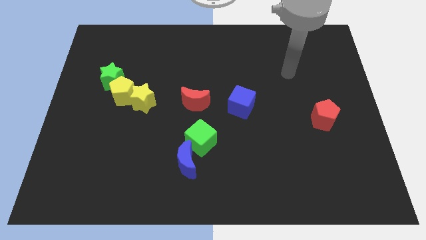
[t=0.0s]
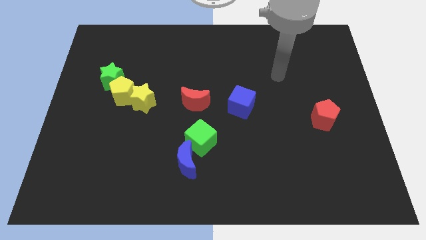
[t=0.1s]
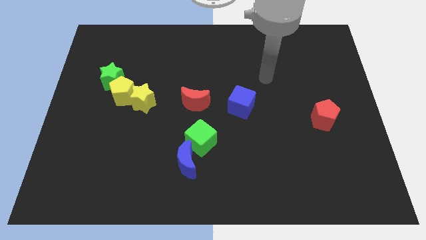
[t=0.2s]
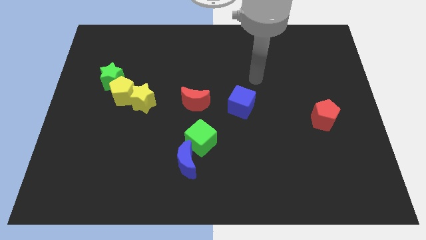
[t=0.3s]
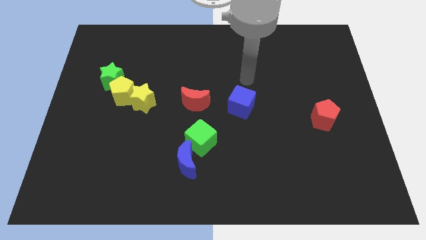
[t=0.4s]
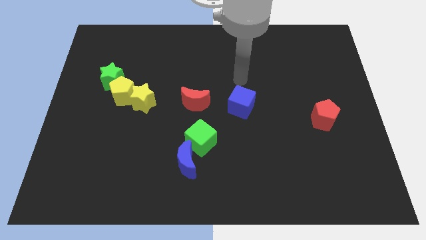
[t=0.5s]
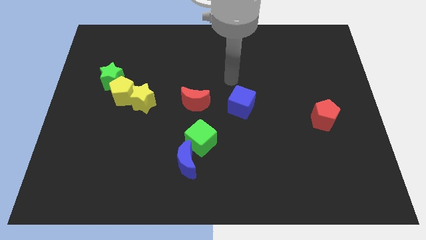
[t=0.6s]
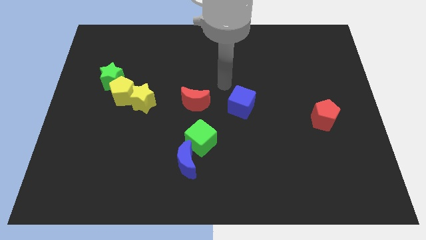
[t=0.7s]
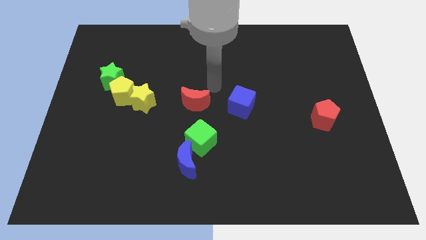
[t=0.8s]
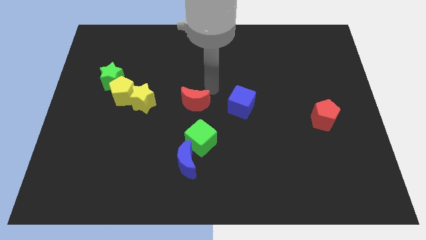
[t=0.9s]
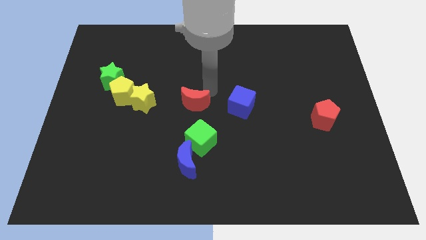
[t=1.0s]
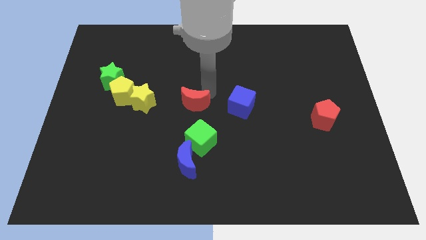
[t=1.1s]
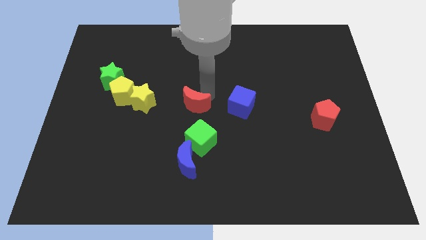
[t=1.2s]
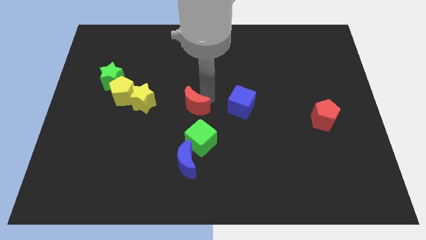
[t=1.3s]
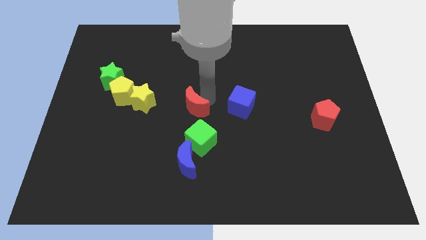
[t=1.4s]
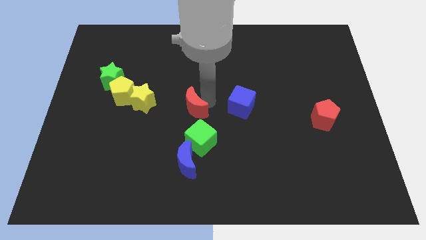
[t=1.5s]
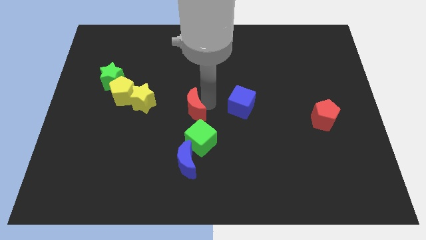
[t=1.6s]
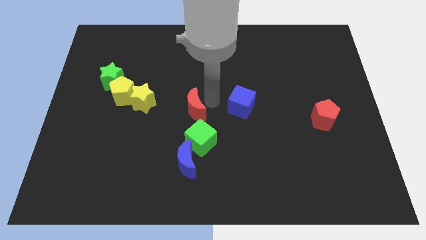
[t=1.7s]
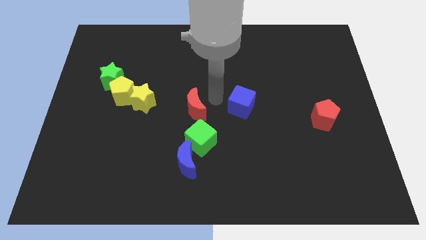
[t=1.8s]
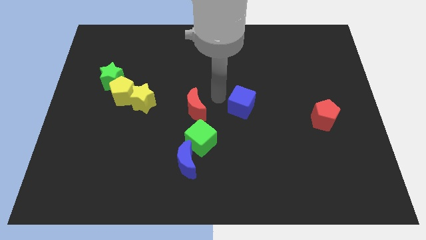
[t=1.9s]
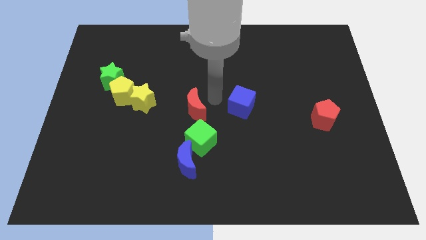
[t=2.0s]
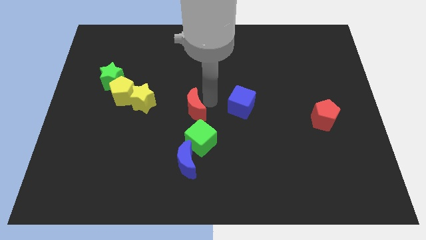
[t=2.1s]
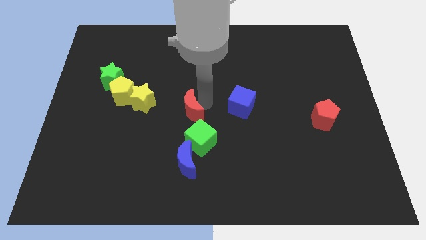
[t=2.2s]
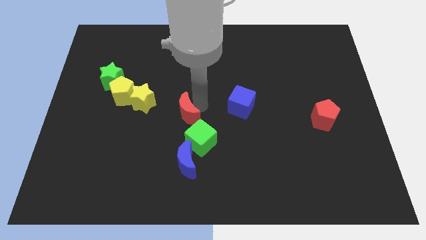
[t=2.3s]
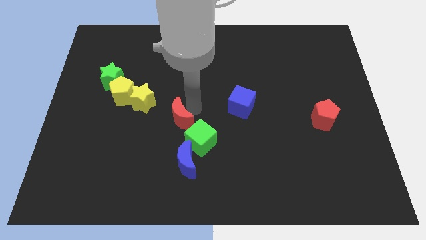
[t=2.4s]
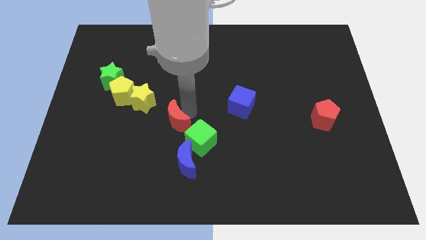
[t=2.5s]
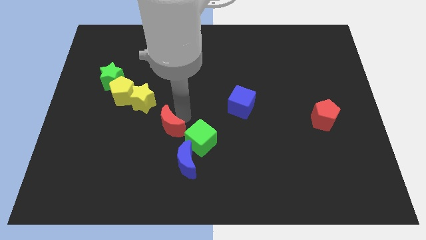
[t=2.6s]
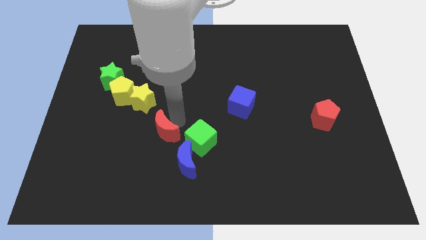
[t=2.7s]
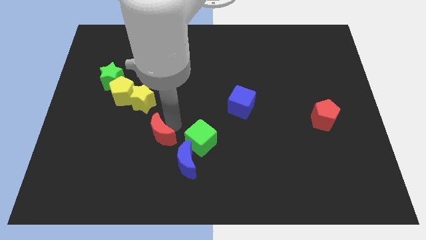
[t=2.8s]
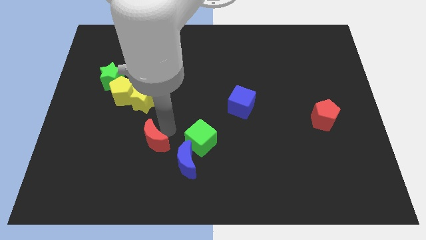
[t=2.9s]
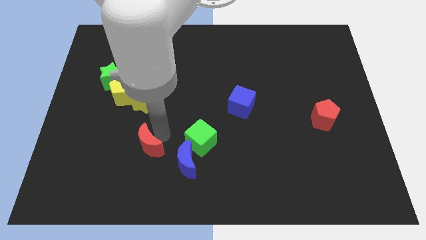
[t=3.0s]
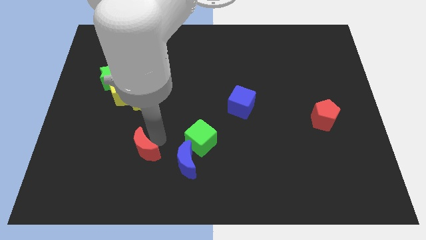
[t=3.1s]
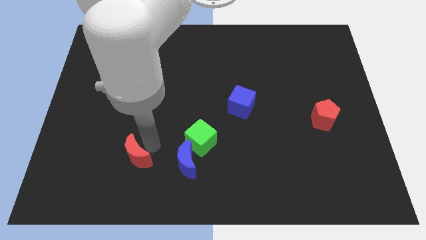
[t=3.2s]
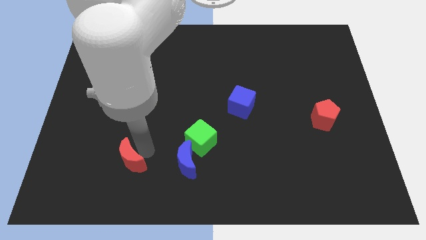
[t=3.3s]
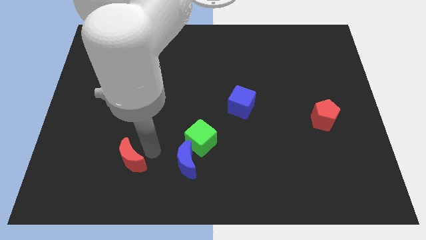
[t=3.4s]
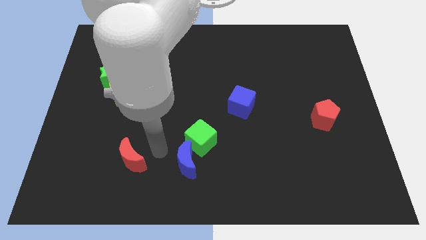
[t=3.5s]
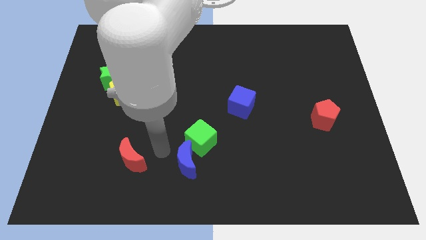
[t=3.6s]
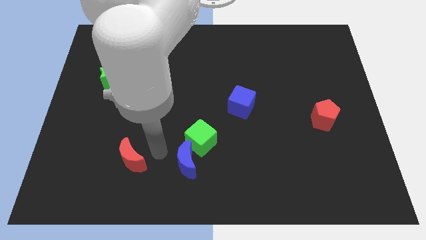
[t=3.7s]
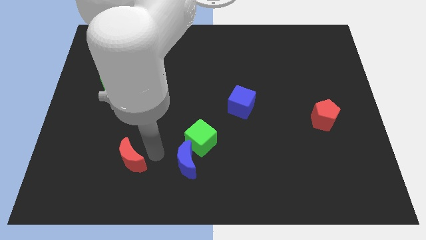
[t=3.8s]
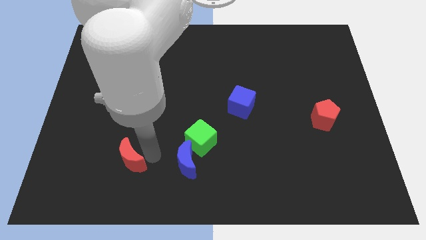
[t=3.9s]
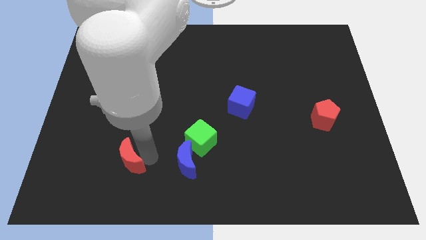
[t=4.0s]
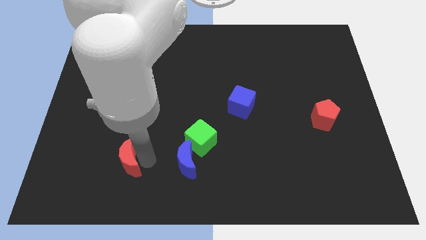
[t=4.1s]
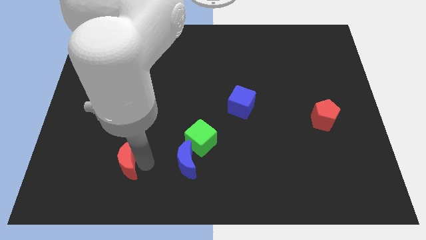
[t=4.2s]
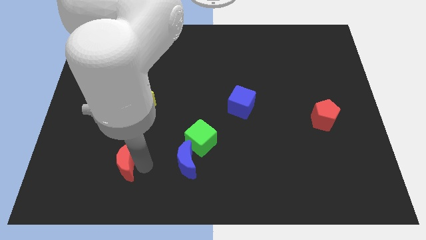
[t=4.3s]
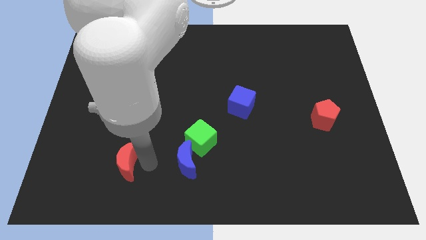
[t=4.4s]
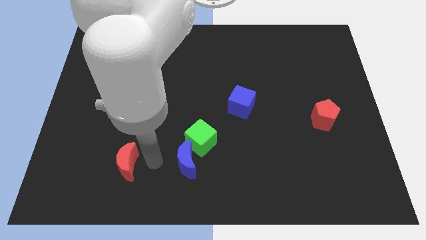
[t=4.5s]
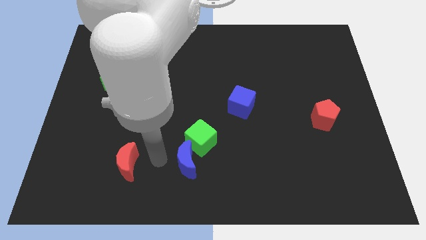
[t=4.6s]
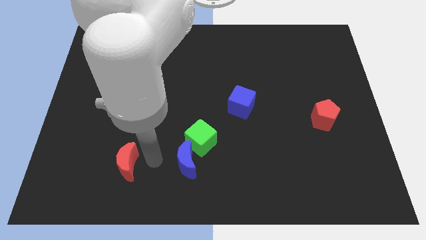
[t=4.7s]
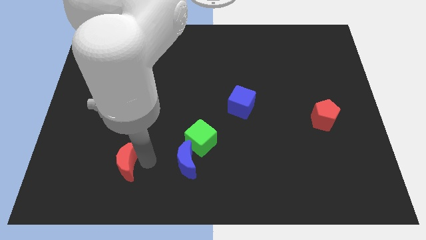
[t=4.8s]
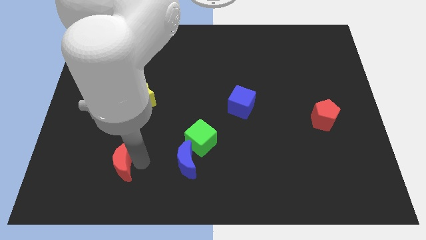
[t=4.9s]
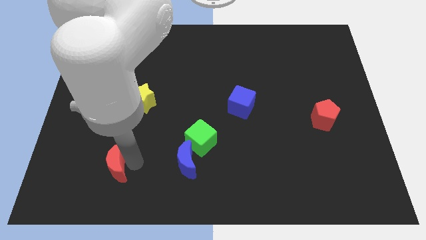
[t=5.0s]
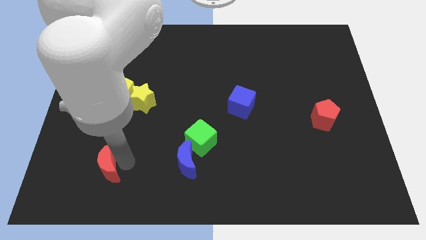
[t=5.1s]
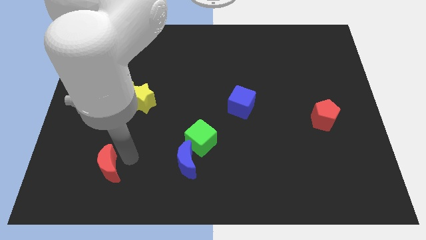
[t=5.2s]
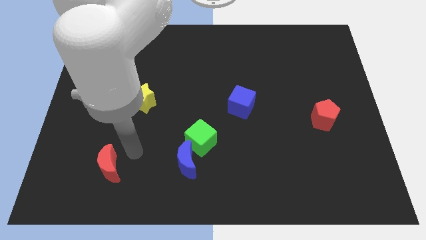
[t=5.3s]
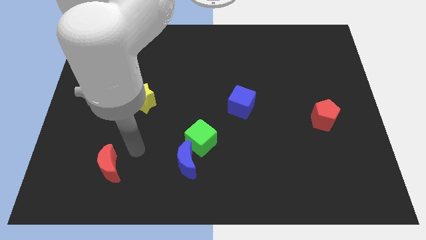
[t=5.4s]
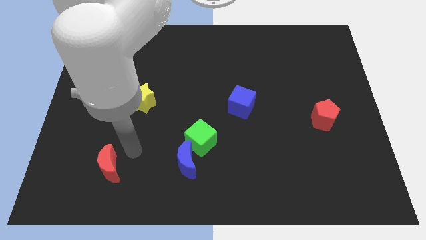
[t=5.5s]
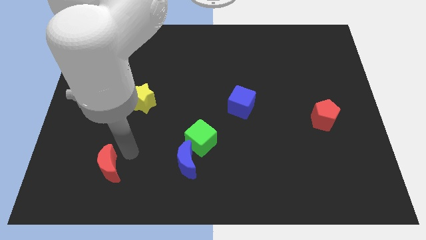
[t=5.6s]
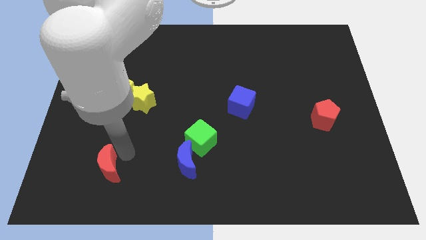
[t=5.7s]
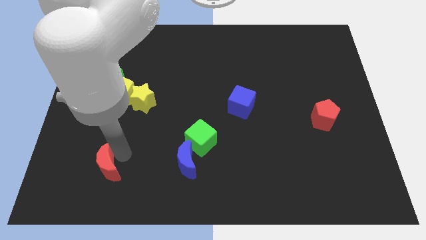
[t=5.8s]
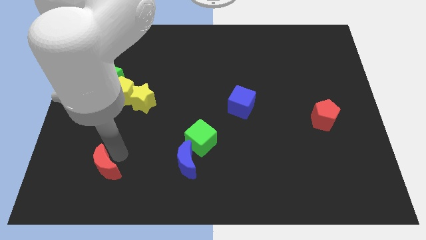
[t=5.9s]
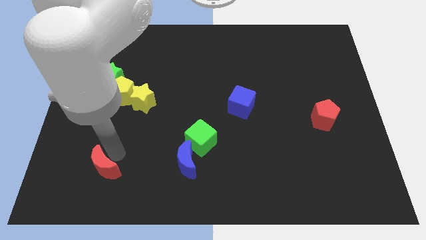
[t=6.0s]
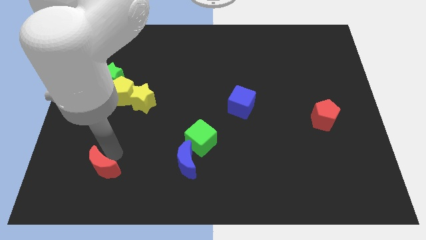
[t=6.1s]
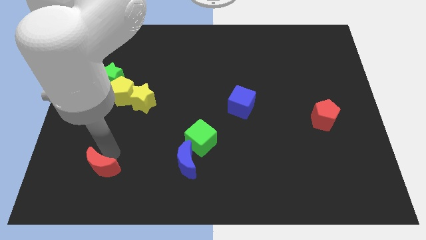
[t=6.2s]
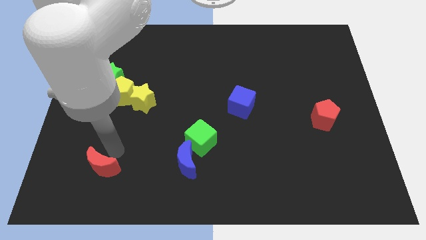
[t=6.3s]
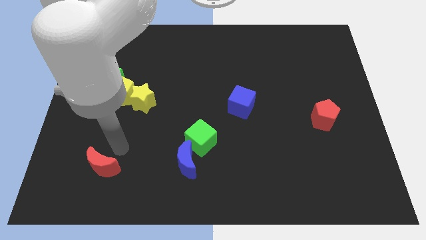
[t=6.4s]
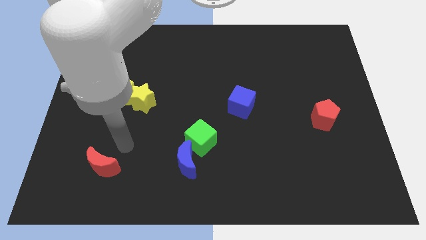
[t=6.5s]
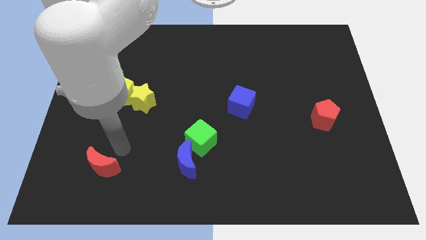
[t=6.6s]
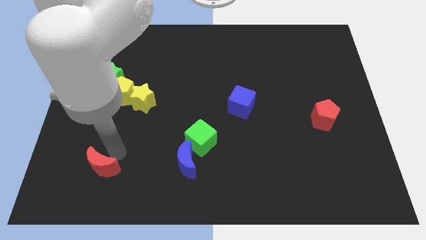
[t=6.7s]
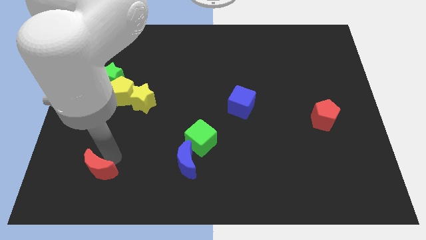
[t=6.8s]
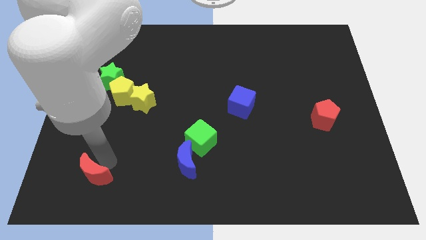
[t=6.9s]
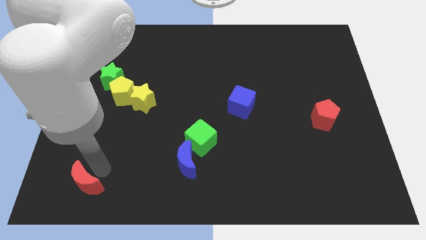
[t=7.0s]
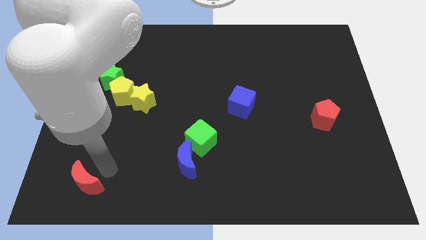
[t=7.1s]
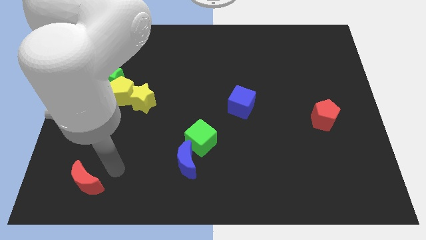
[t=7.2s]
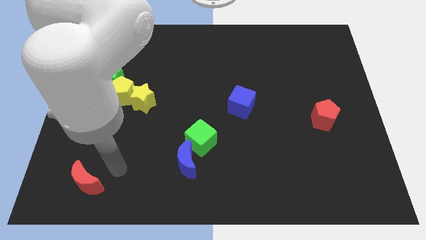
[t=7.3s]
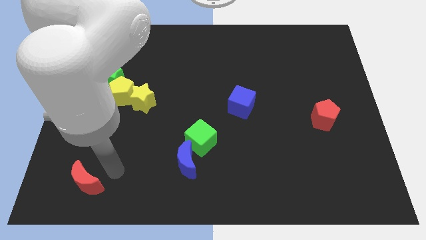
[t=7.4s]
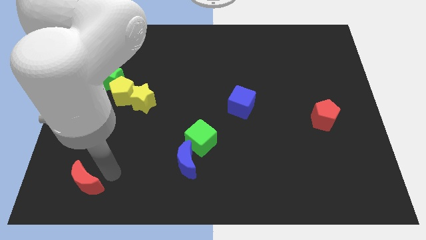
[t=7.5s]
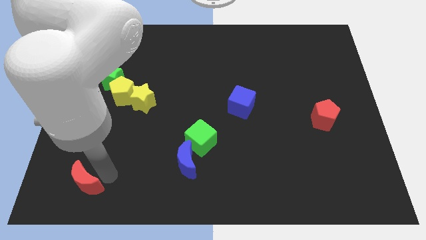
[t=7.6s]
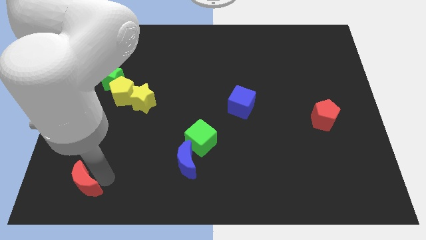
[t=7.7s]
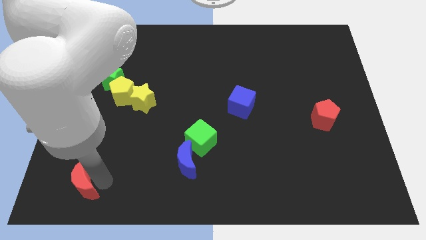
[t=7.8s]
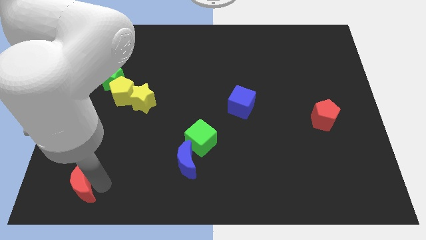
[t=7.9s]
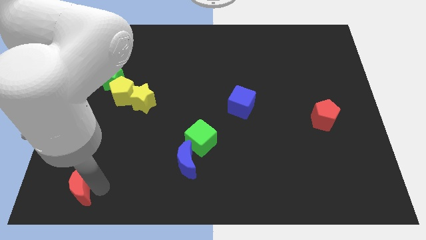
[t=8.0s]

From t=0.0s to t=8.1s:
move the red moon to the bottom left of the board
